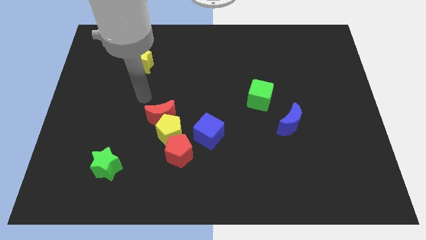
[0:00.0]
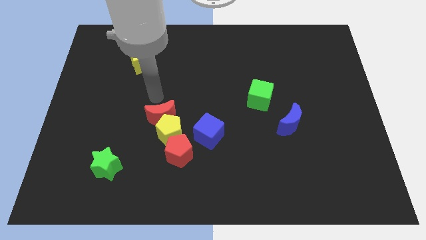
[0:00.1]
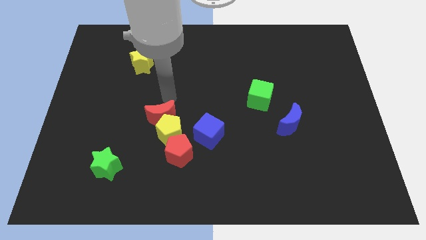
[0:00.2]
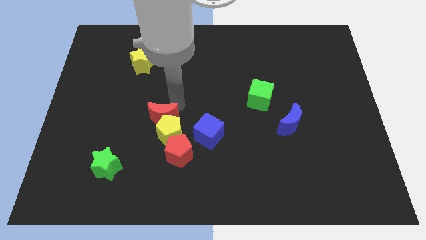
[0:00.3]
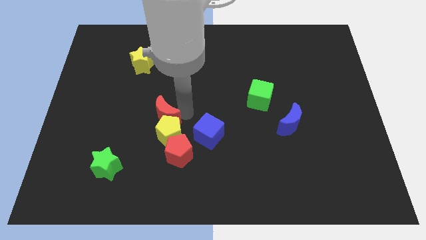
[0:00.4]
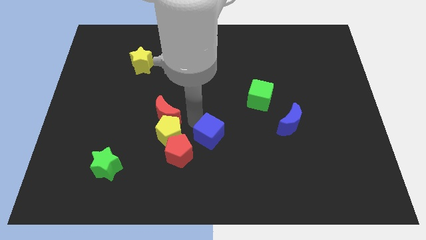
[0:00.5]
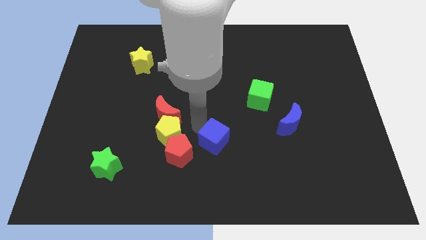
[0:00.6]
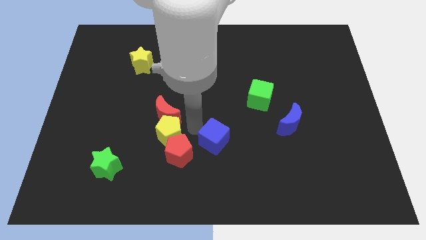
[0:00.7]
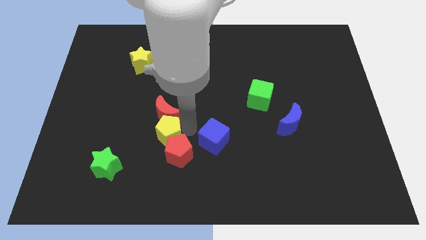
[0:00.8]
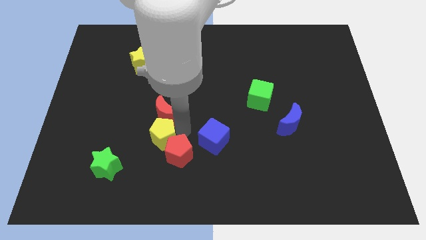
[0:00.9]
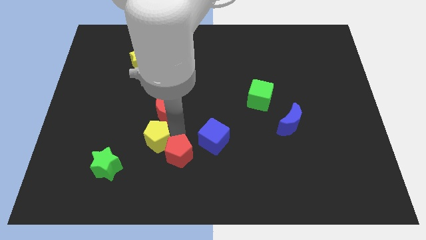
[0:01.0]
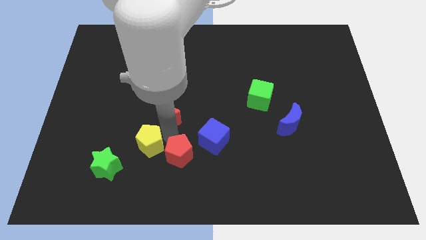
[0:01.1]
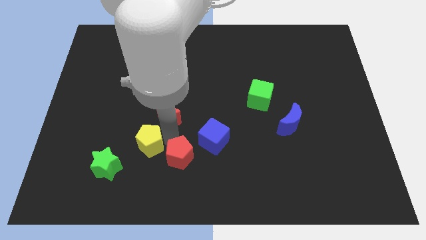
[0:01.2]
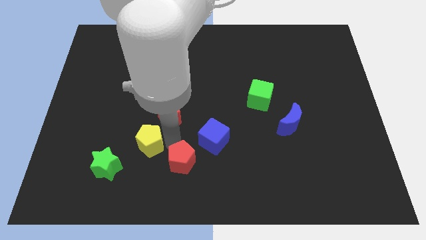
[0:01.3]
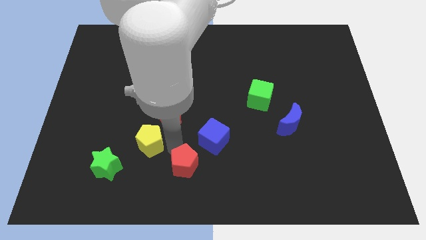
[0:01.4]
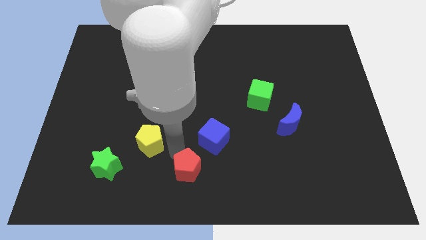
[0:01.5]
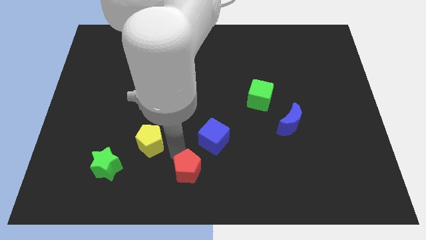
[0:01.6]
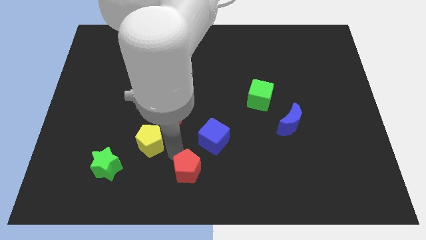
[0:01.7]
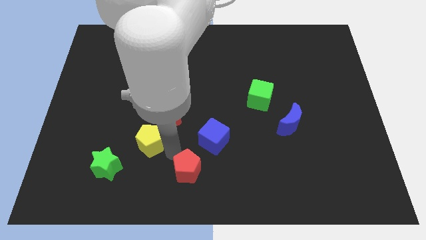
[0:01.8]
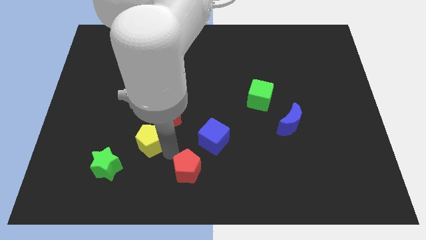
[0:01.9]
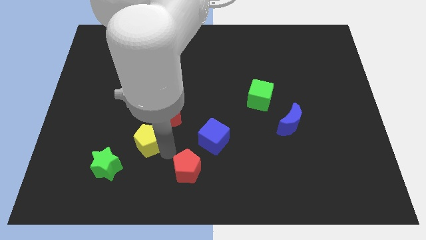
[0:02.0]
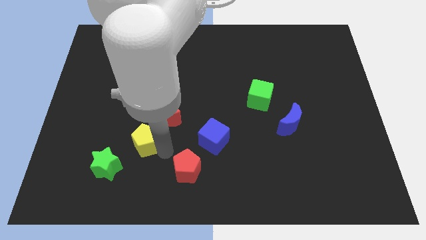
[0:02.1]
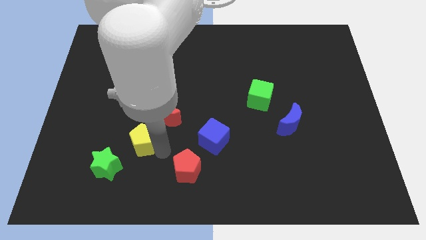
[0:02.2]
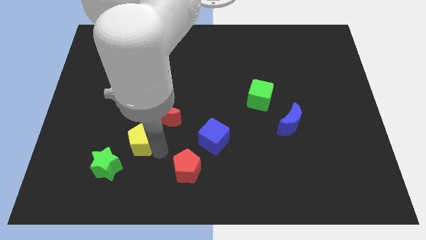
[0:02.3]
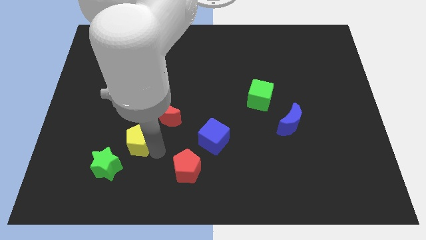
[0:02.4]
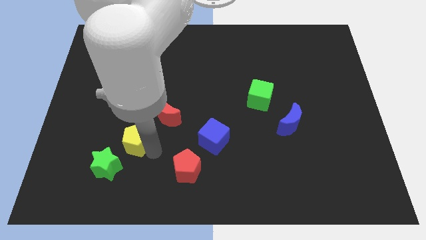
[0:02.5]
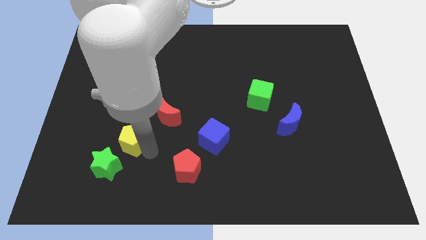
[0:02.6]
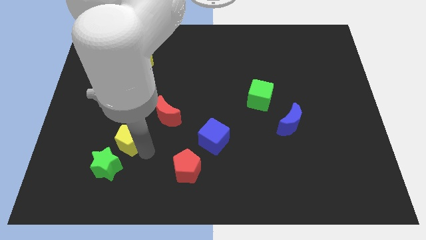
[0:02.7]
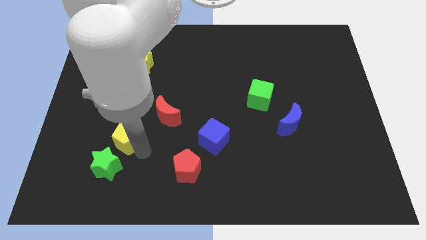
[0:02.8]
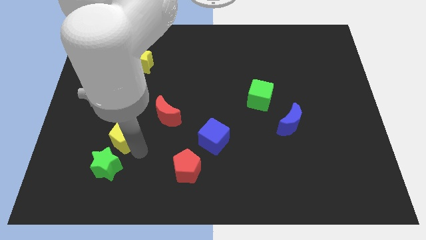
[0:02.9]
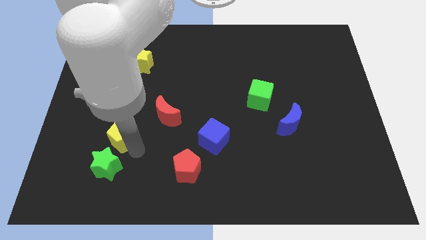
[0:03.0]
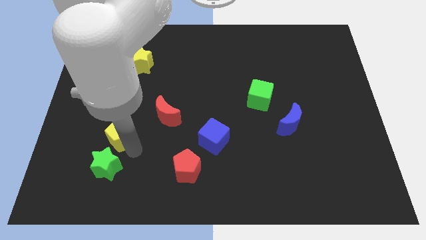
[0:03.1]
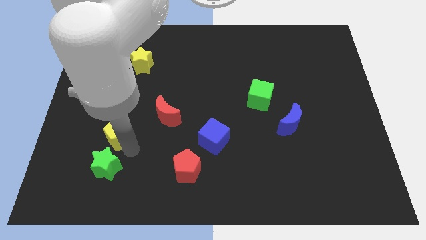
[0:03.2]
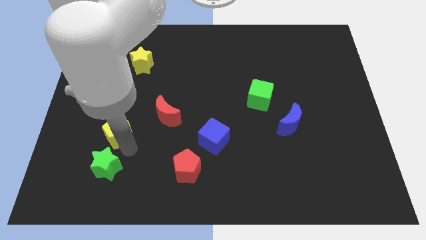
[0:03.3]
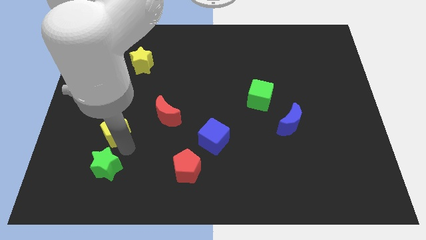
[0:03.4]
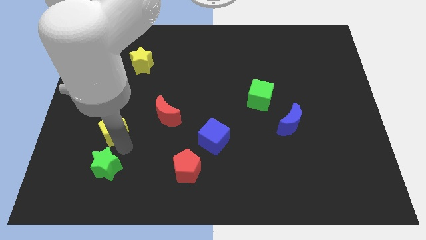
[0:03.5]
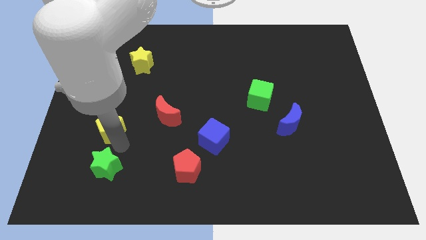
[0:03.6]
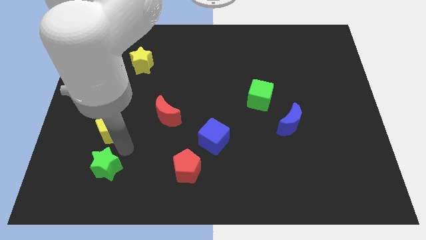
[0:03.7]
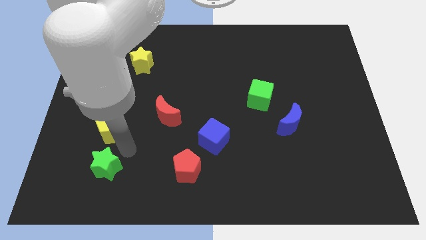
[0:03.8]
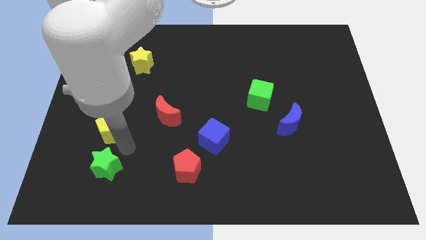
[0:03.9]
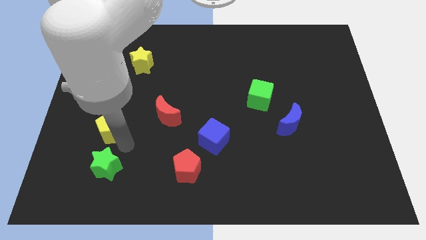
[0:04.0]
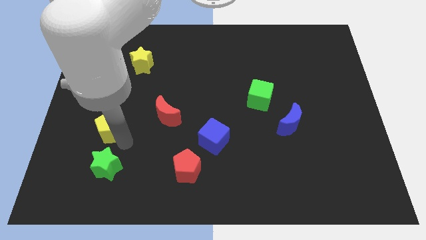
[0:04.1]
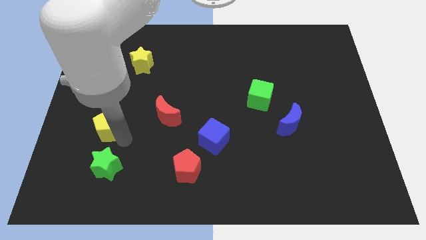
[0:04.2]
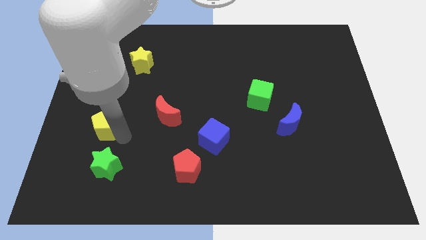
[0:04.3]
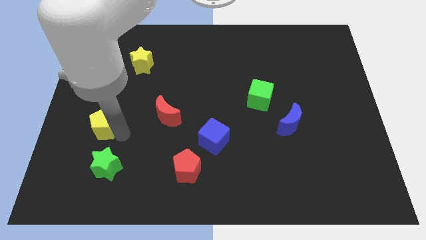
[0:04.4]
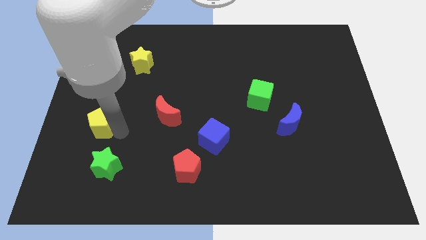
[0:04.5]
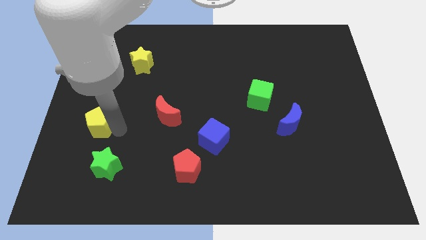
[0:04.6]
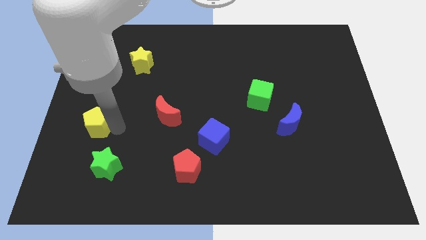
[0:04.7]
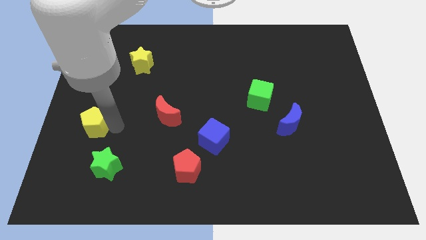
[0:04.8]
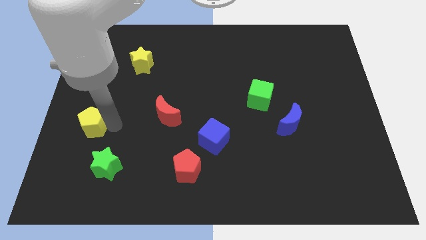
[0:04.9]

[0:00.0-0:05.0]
push the yellow pentagon to the left side

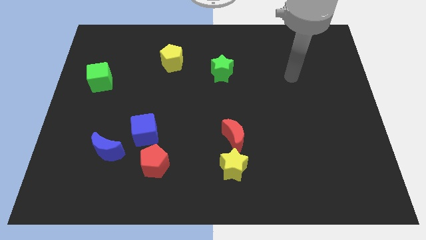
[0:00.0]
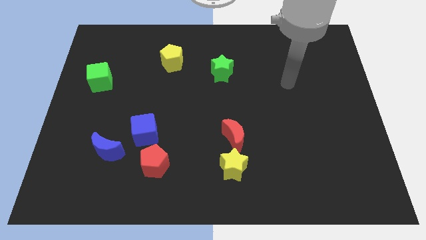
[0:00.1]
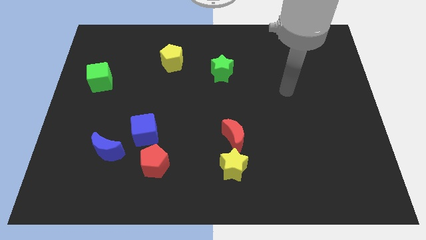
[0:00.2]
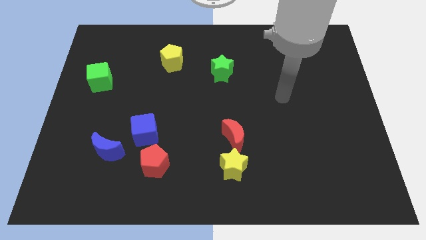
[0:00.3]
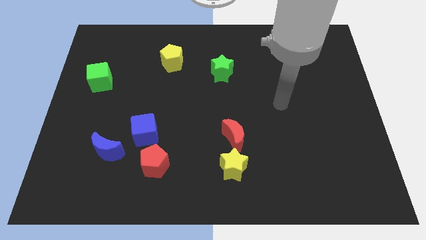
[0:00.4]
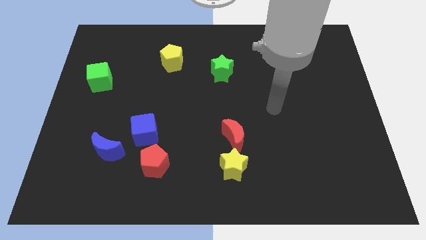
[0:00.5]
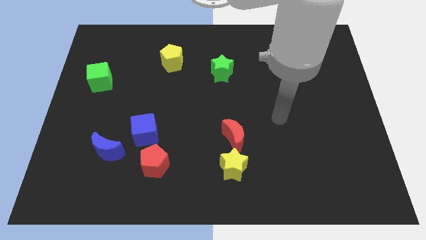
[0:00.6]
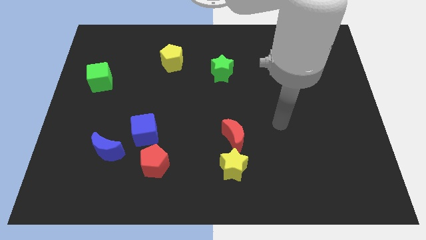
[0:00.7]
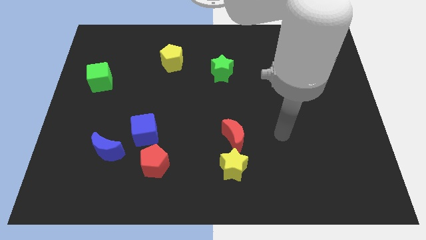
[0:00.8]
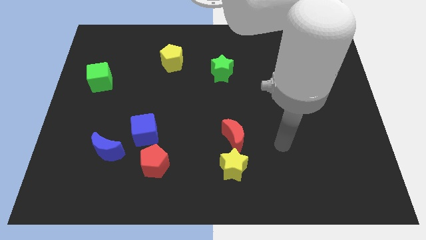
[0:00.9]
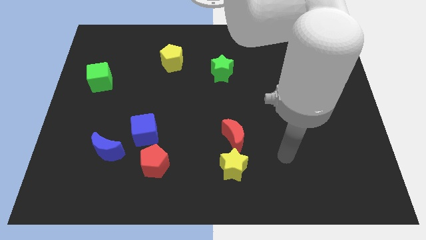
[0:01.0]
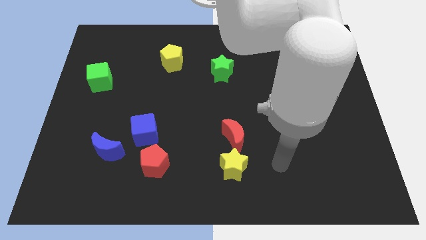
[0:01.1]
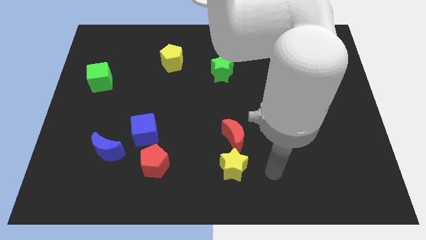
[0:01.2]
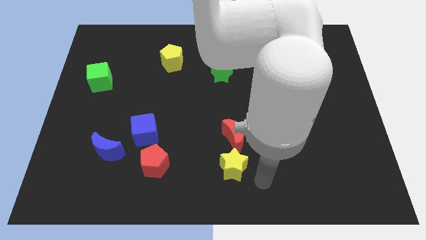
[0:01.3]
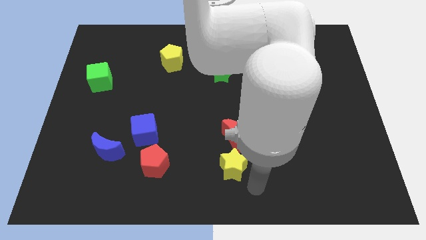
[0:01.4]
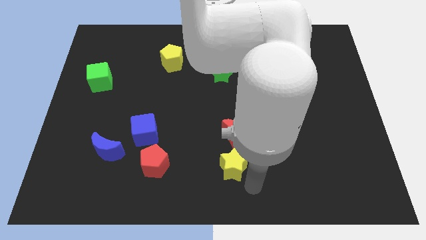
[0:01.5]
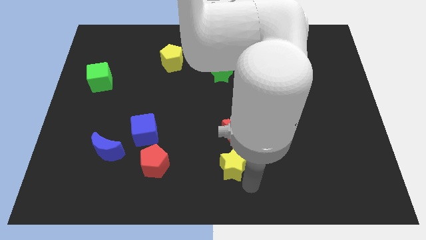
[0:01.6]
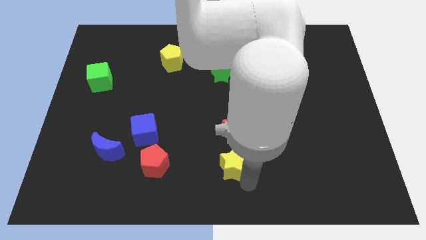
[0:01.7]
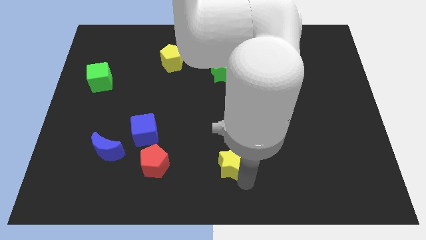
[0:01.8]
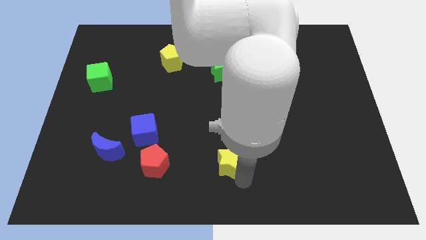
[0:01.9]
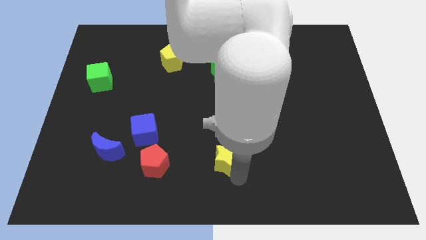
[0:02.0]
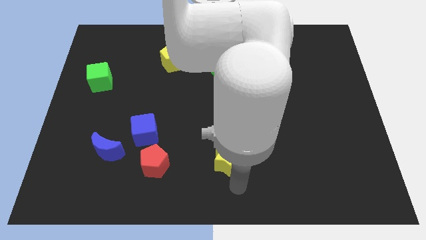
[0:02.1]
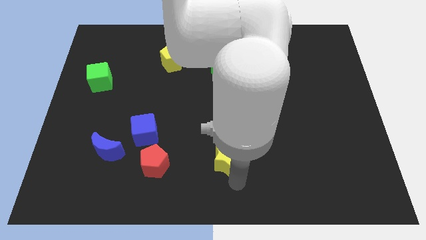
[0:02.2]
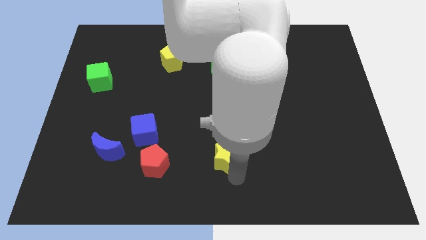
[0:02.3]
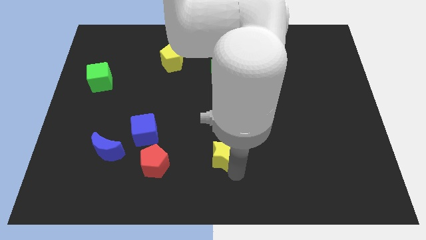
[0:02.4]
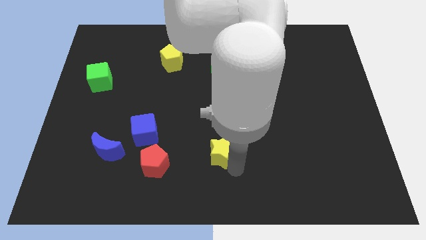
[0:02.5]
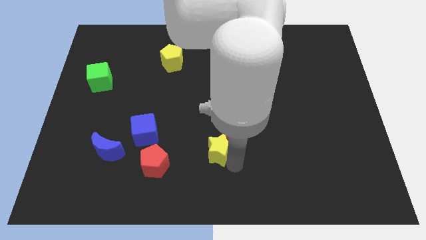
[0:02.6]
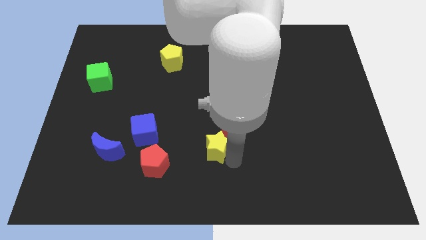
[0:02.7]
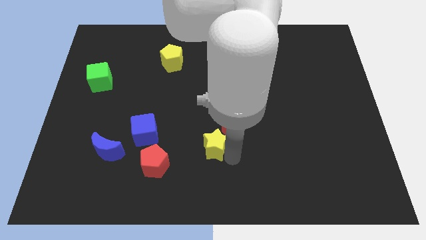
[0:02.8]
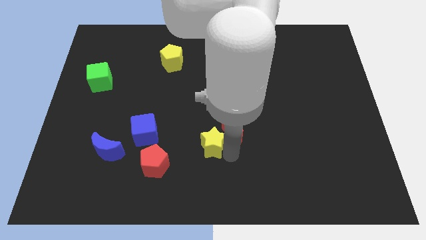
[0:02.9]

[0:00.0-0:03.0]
put the yellow star to the middle of the board
